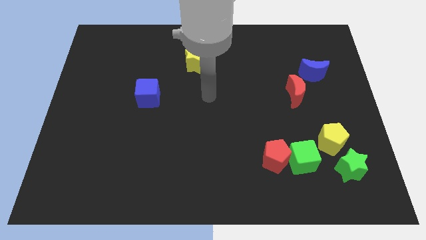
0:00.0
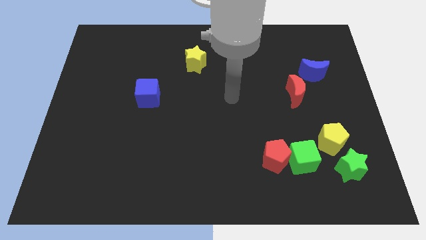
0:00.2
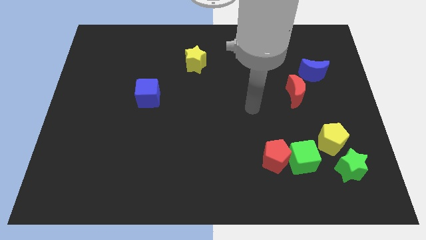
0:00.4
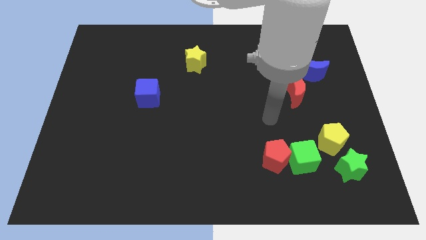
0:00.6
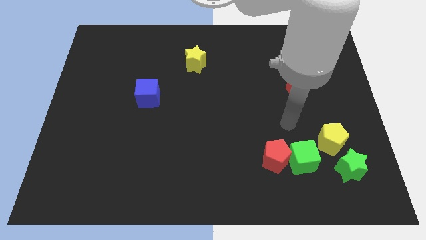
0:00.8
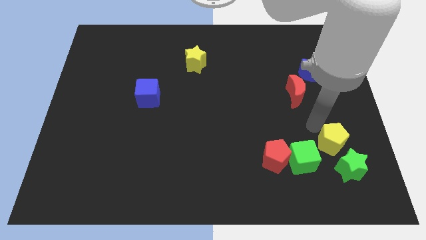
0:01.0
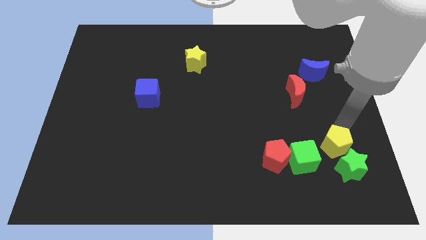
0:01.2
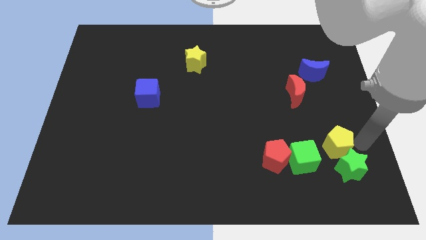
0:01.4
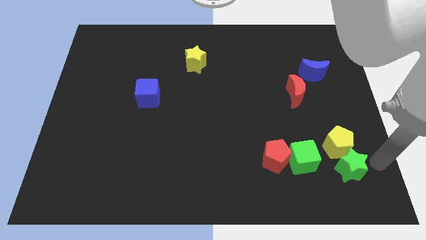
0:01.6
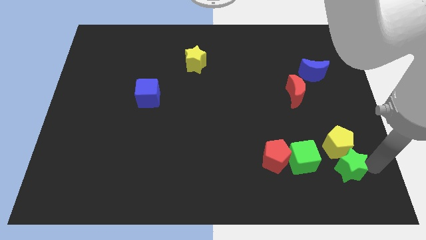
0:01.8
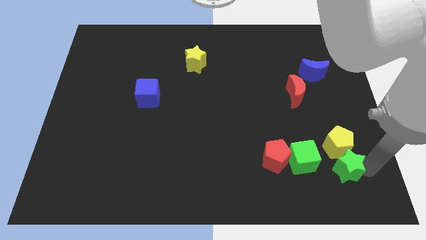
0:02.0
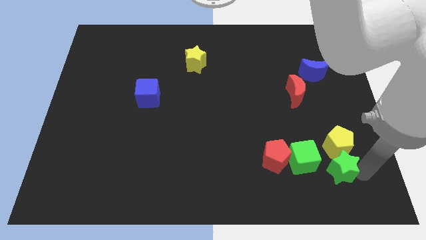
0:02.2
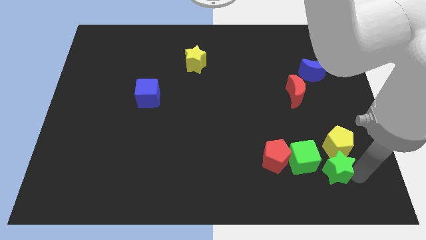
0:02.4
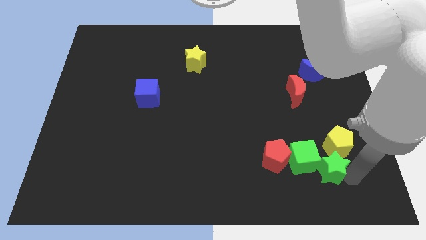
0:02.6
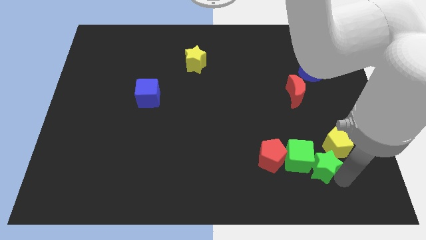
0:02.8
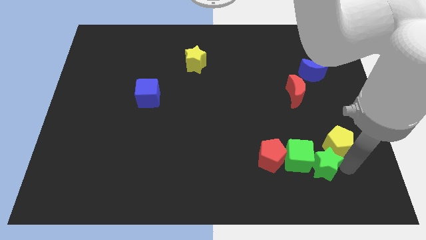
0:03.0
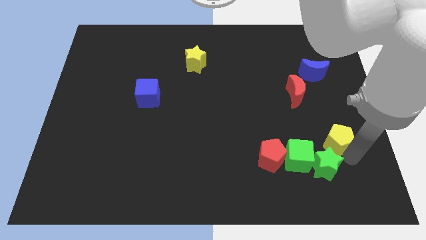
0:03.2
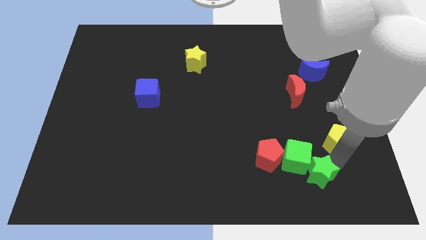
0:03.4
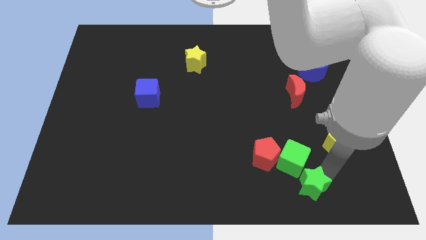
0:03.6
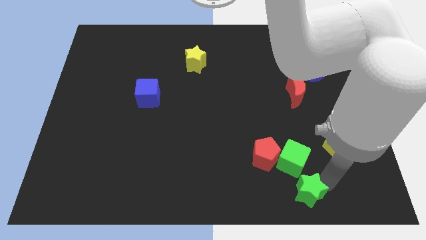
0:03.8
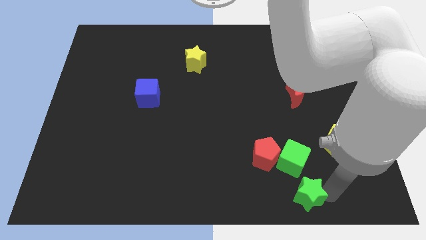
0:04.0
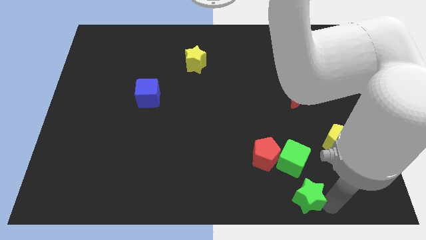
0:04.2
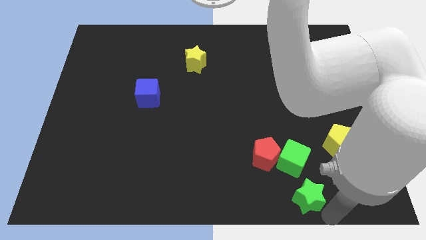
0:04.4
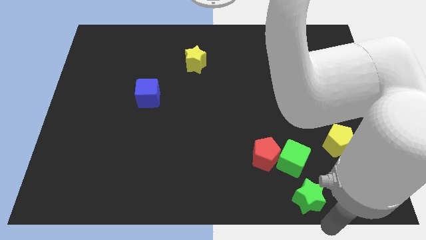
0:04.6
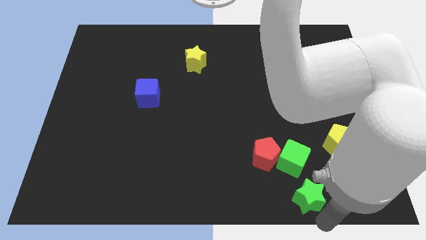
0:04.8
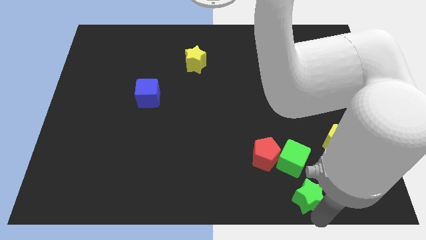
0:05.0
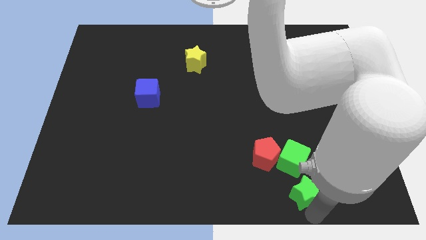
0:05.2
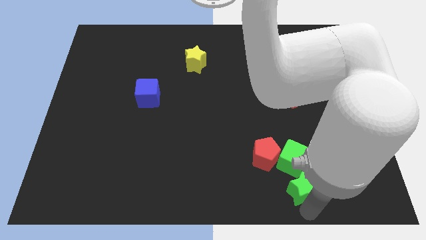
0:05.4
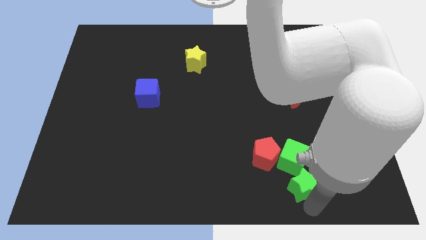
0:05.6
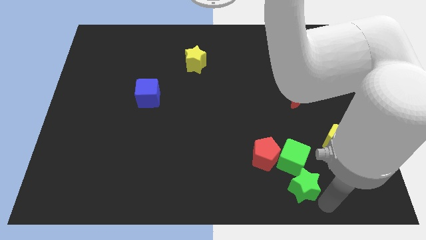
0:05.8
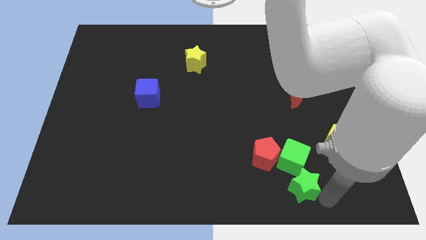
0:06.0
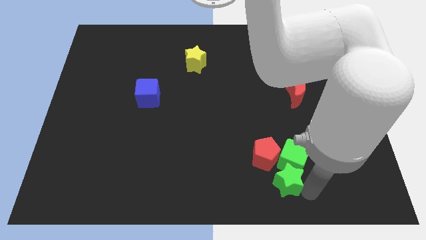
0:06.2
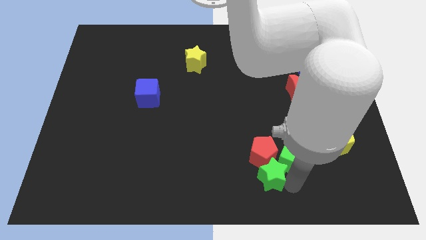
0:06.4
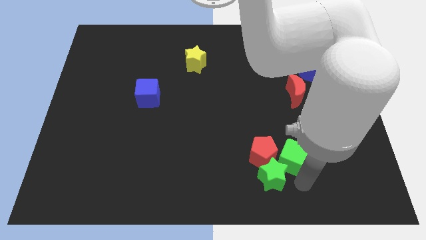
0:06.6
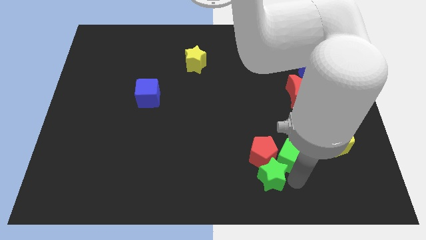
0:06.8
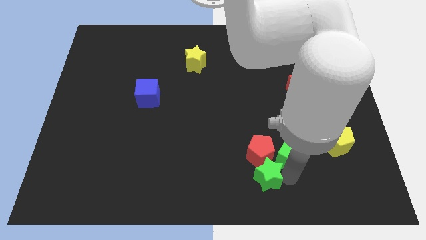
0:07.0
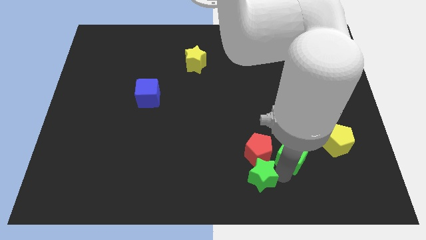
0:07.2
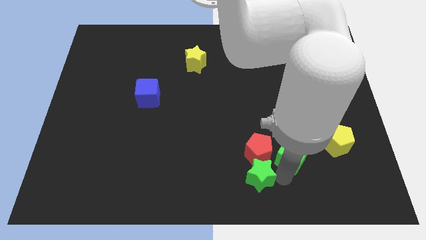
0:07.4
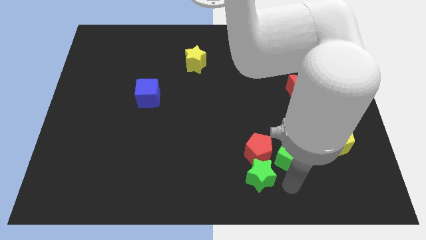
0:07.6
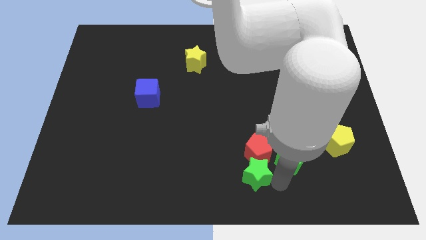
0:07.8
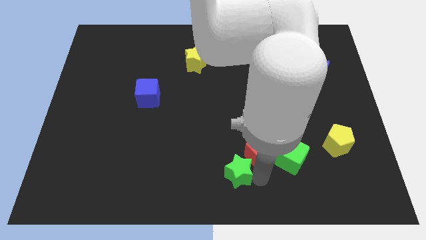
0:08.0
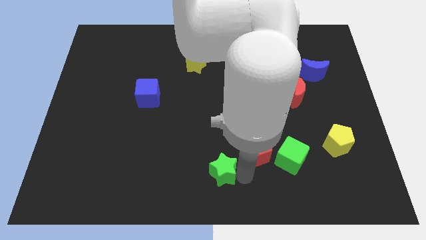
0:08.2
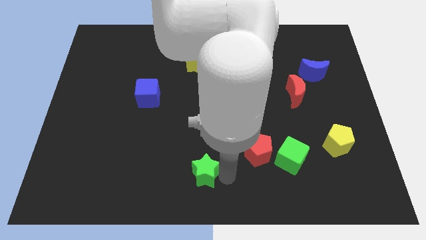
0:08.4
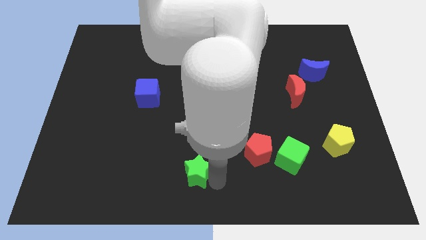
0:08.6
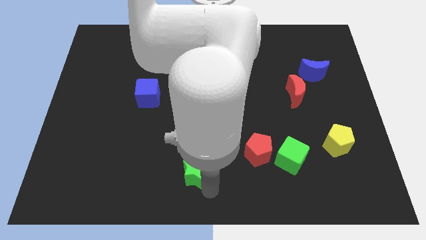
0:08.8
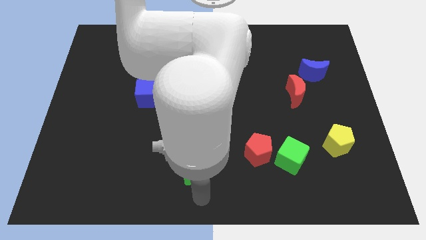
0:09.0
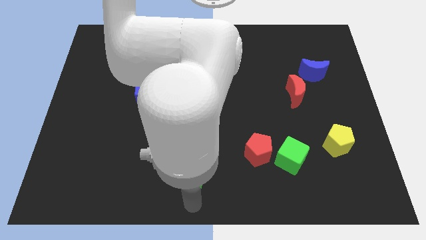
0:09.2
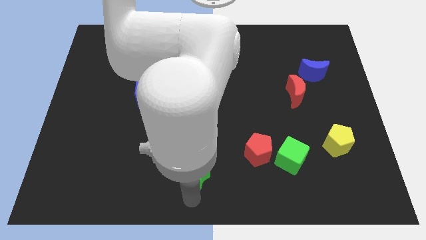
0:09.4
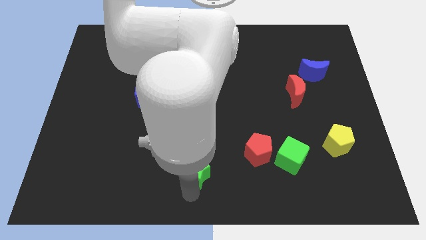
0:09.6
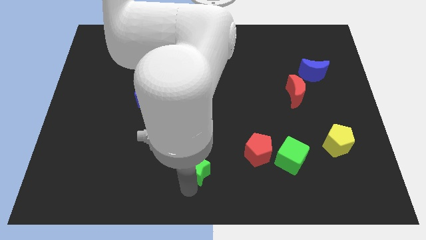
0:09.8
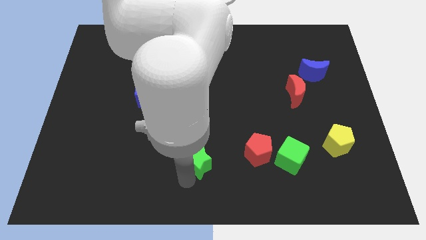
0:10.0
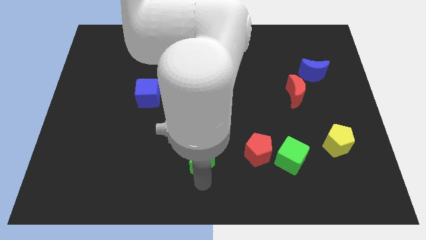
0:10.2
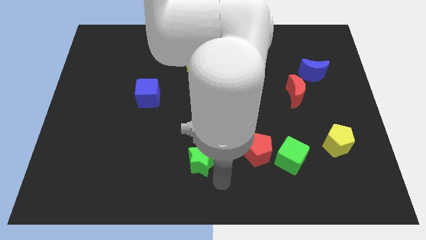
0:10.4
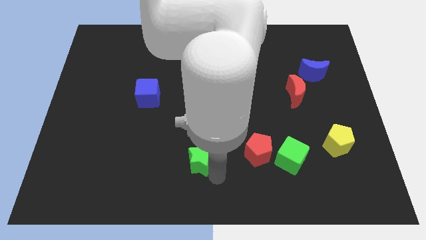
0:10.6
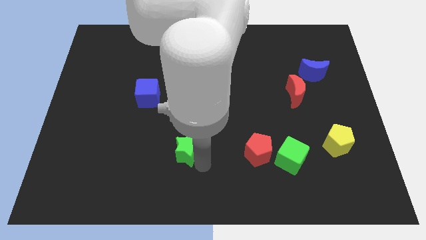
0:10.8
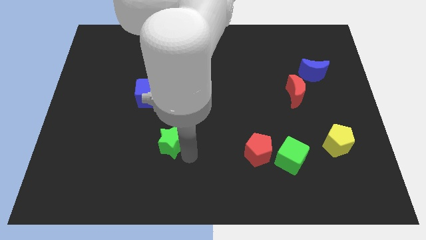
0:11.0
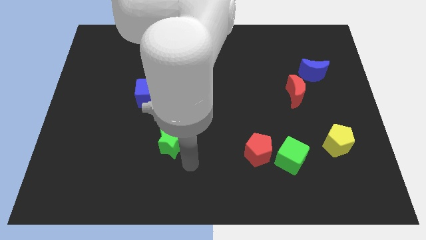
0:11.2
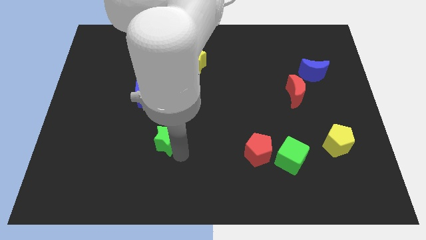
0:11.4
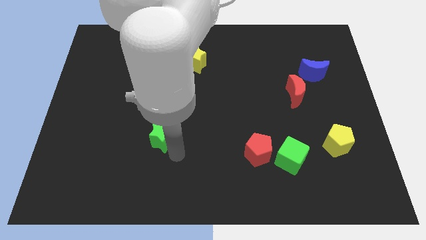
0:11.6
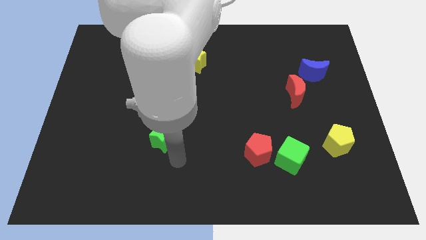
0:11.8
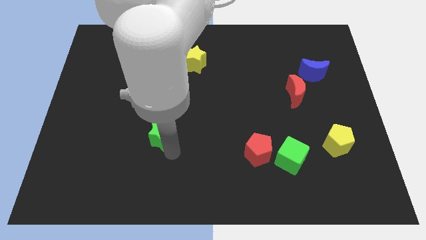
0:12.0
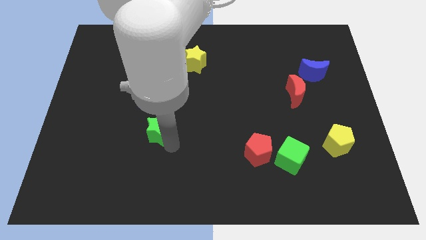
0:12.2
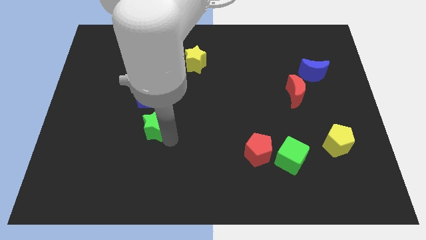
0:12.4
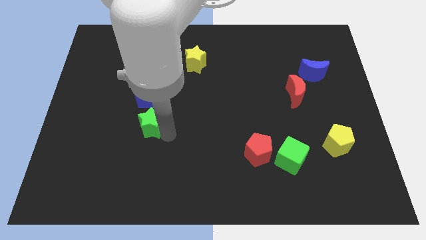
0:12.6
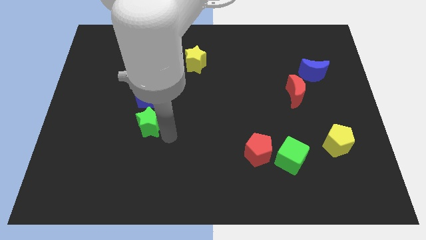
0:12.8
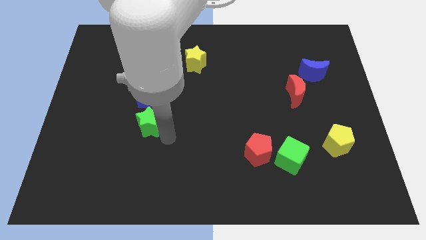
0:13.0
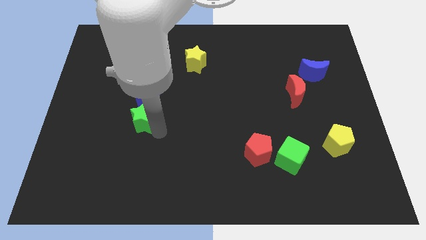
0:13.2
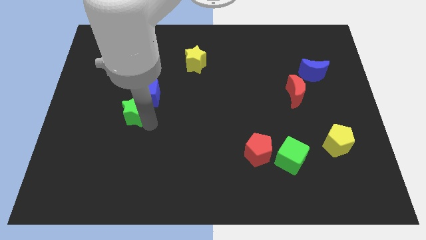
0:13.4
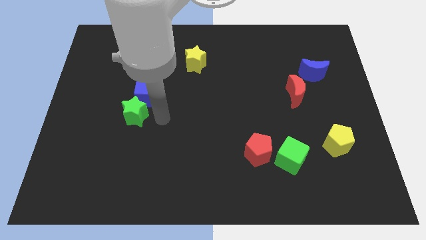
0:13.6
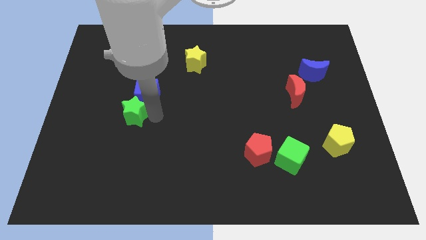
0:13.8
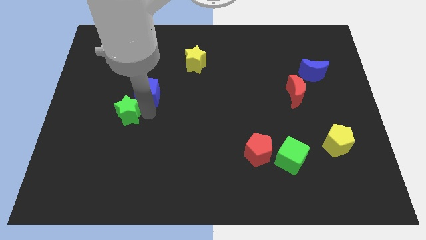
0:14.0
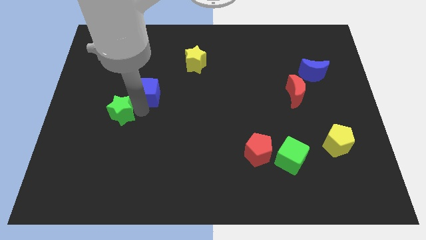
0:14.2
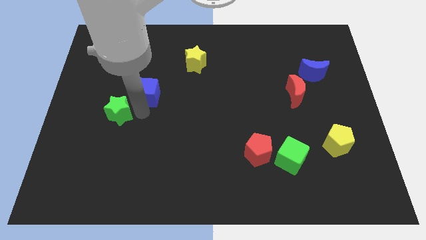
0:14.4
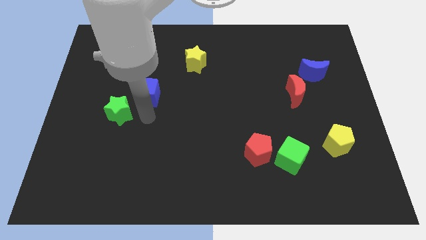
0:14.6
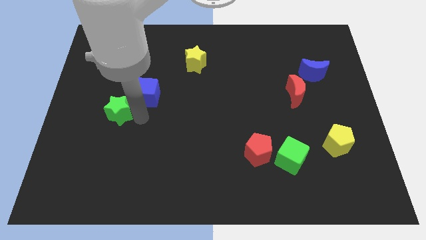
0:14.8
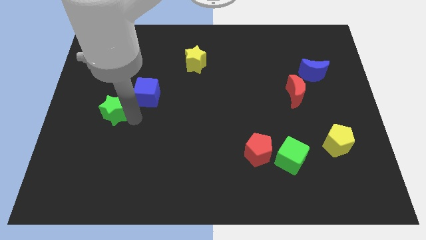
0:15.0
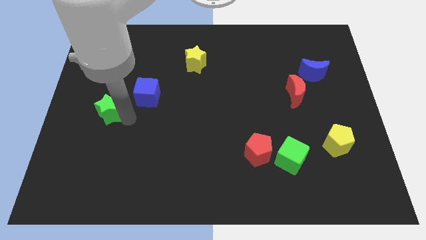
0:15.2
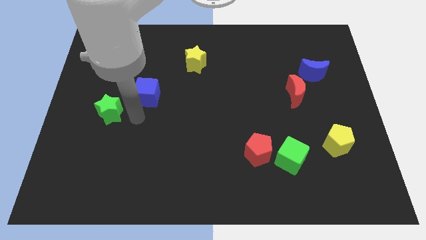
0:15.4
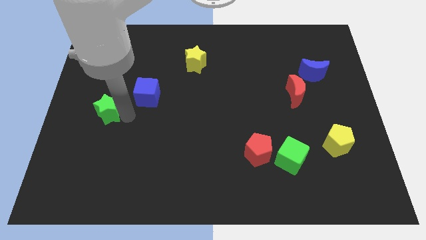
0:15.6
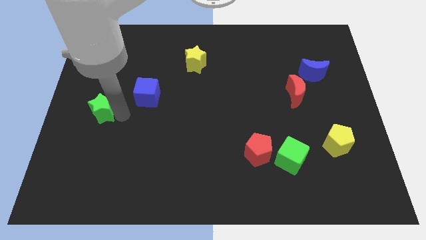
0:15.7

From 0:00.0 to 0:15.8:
move the green star to the left side of the board
